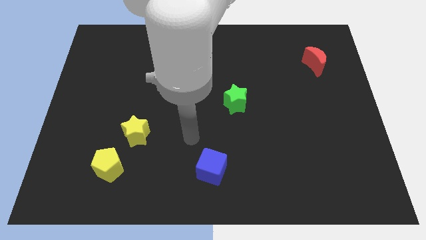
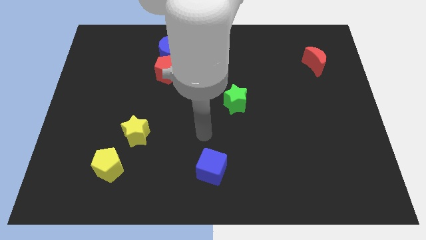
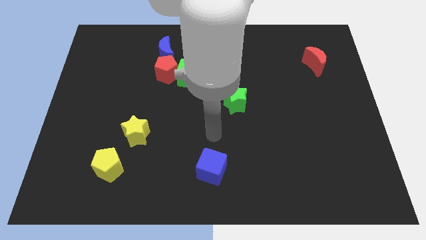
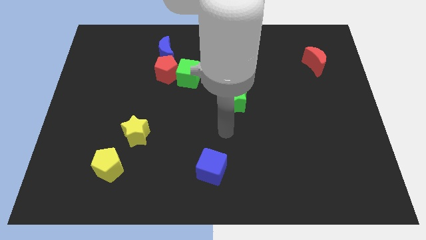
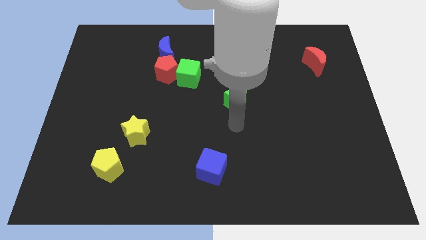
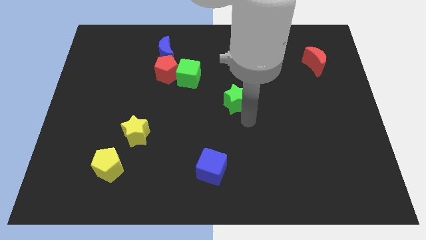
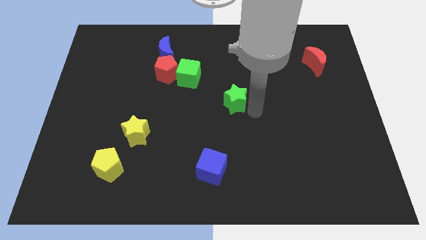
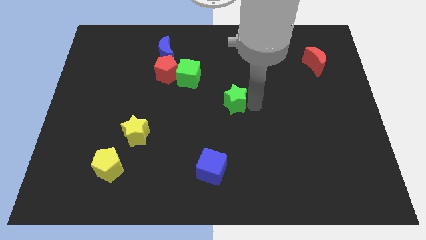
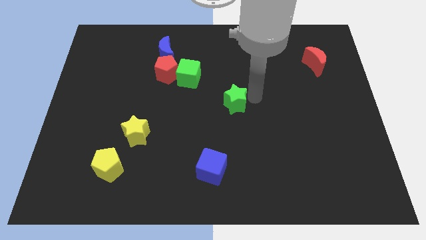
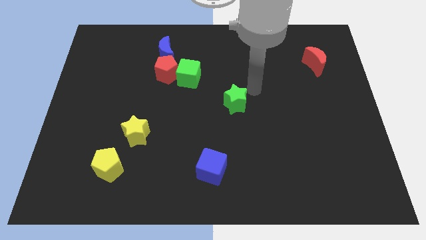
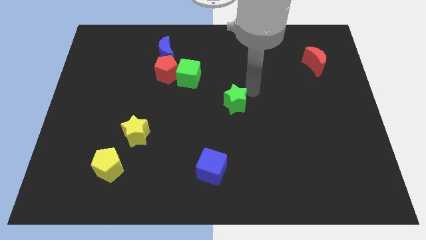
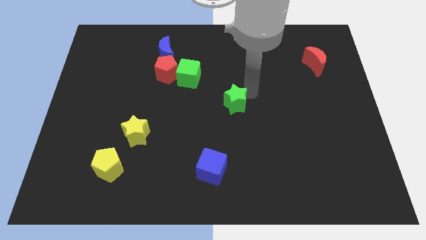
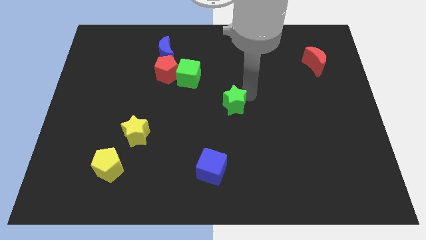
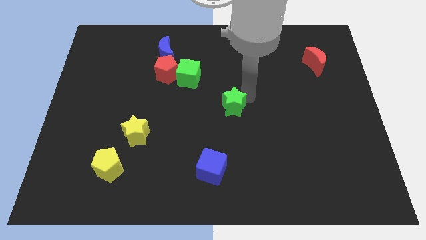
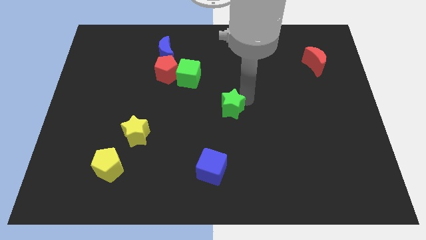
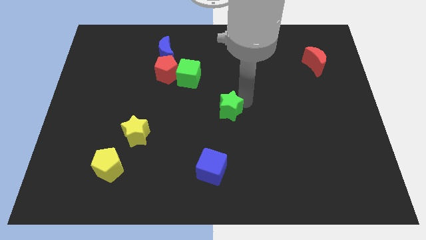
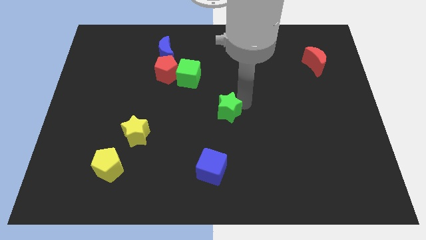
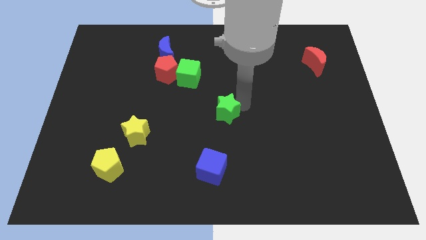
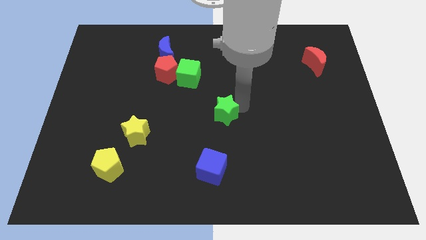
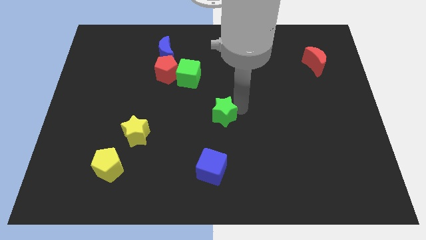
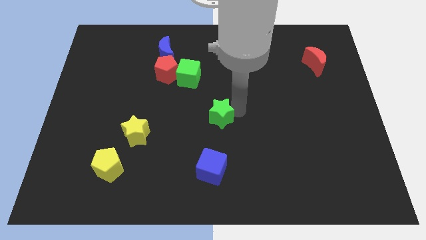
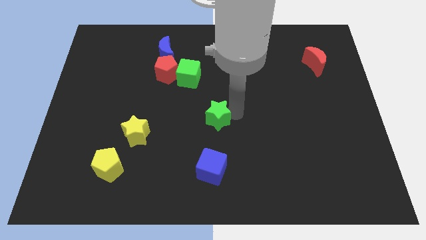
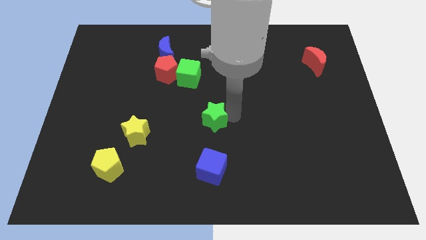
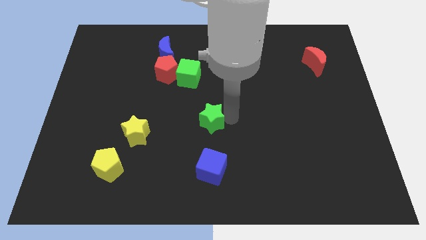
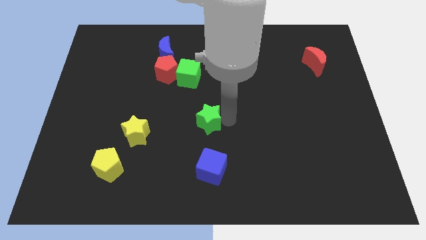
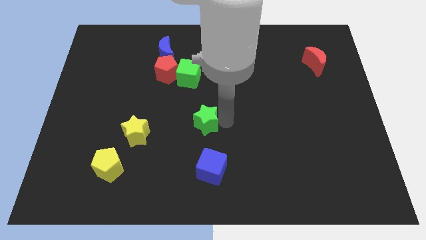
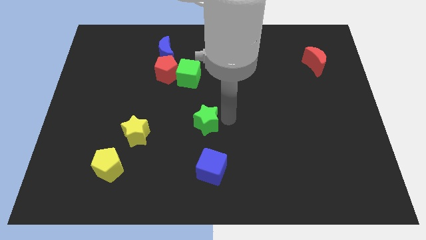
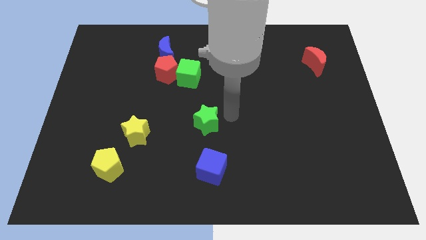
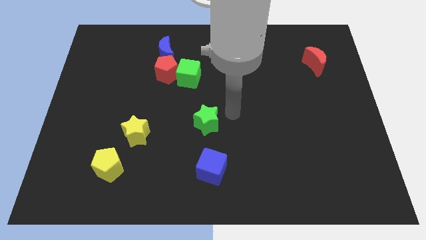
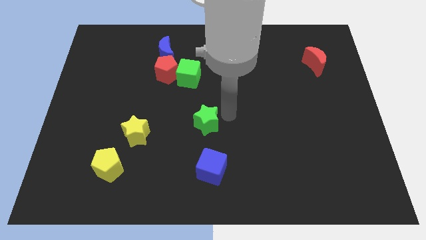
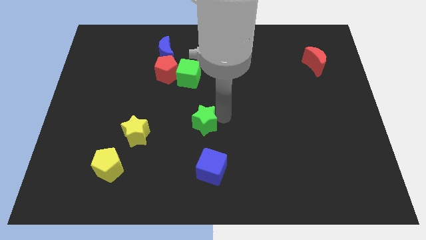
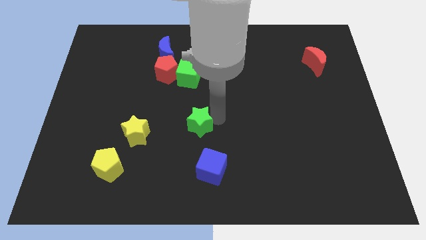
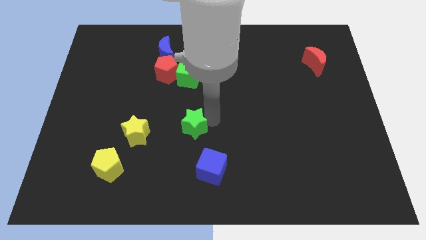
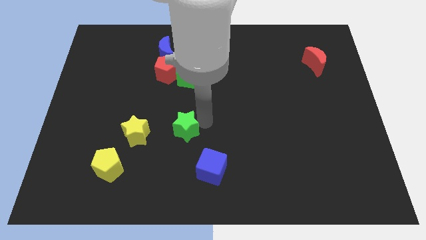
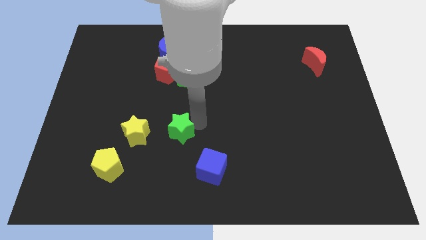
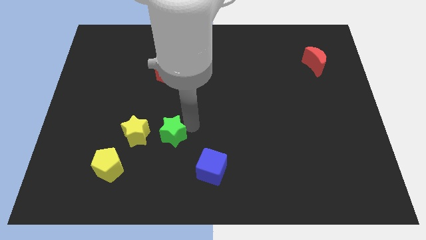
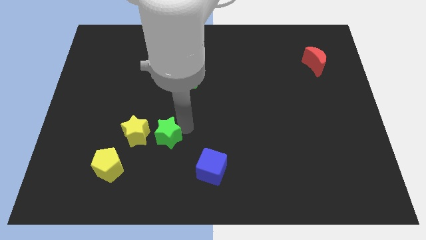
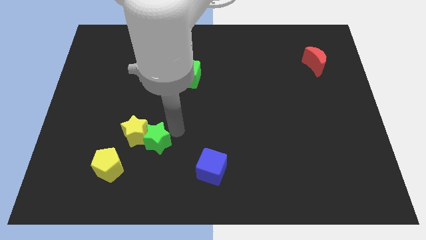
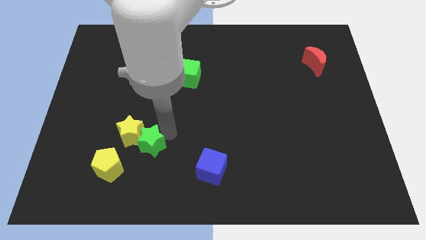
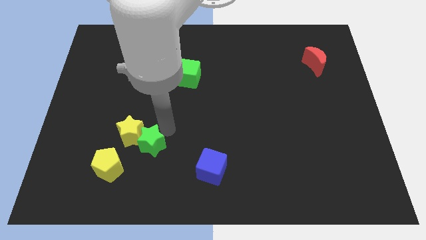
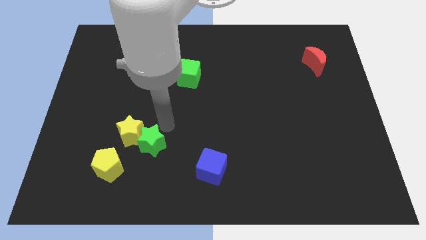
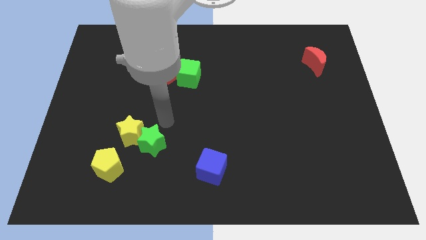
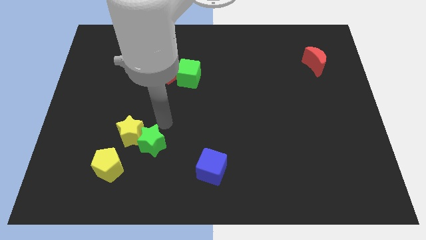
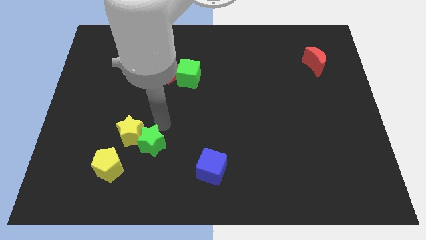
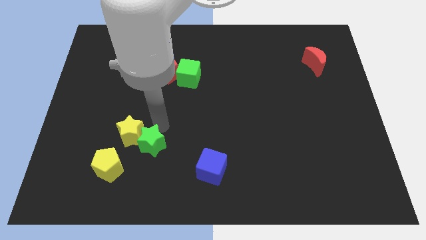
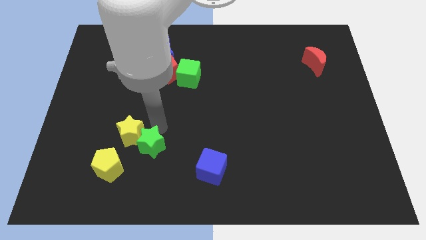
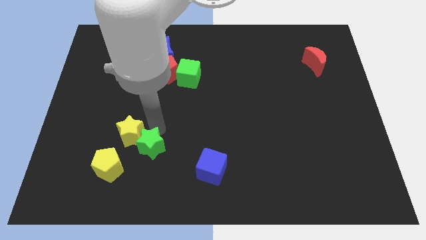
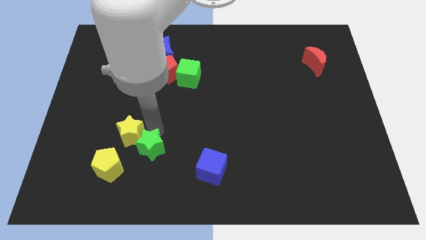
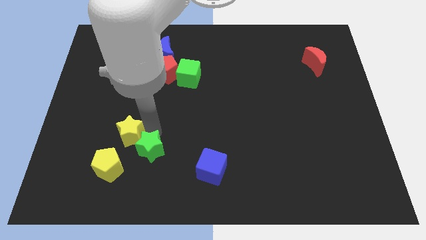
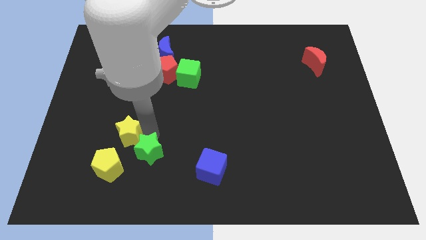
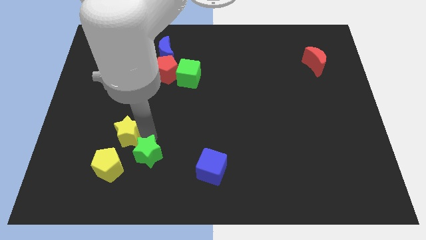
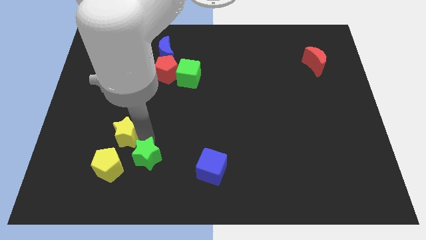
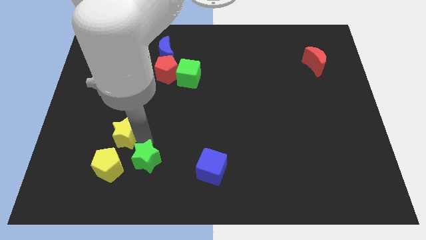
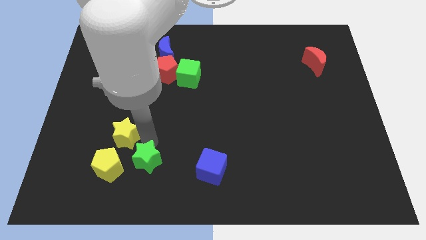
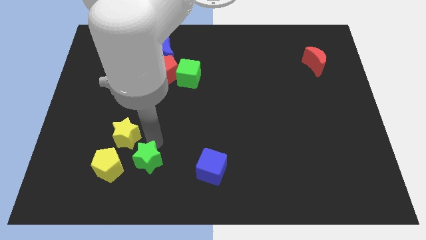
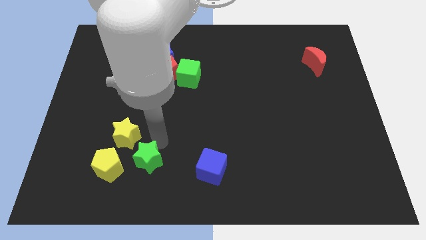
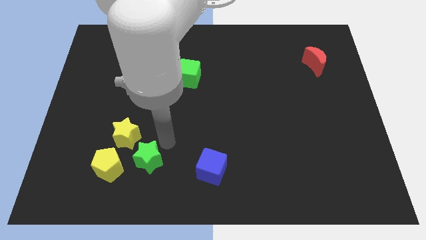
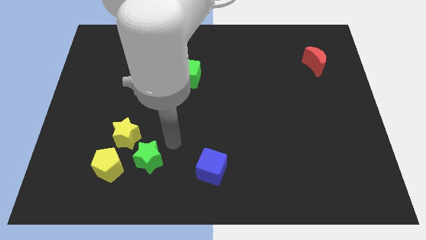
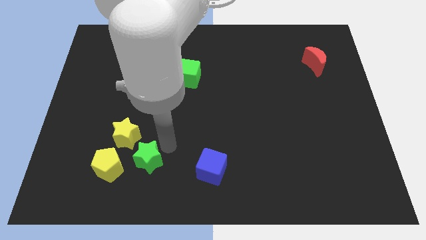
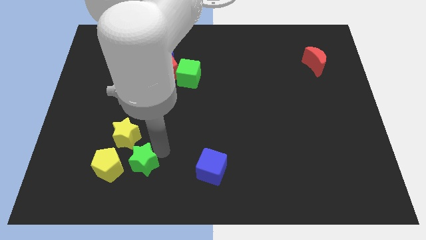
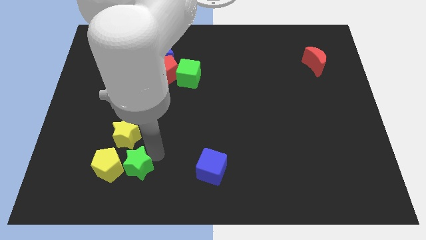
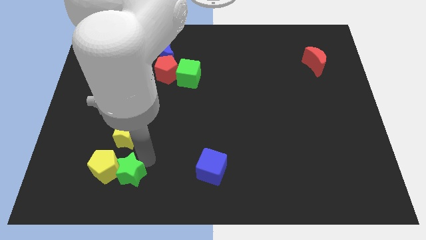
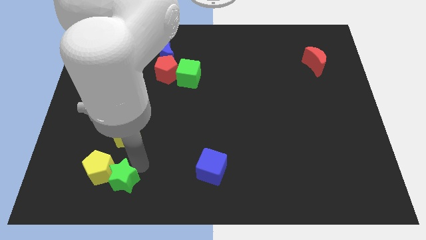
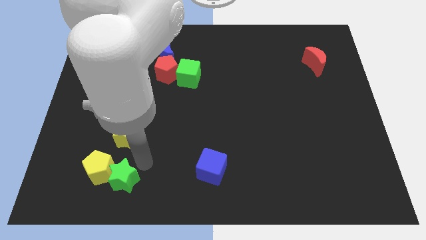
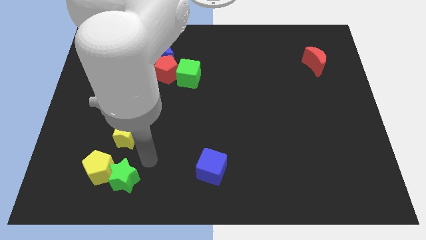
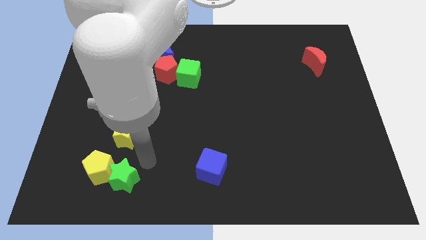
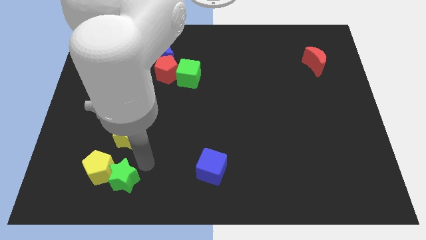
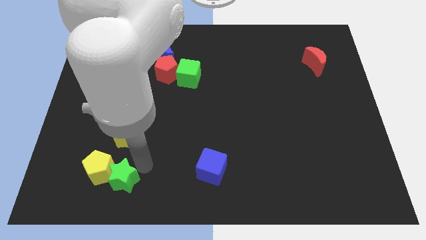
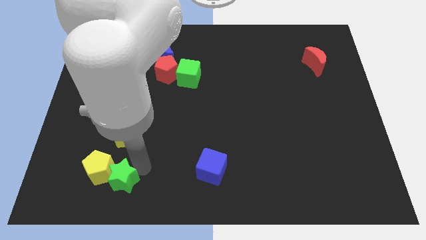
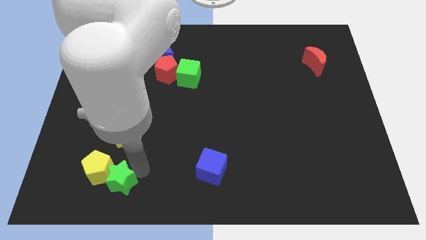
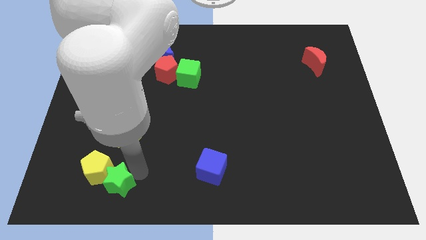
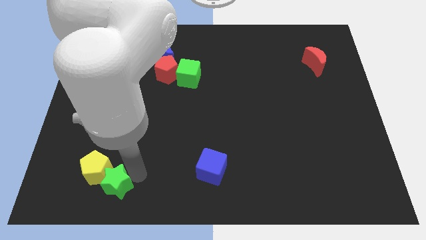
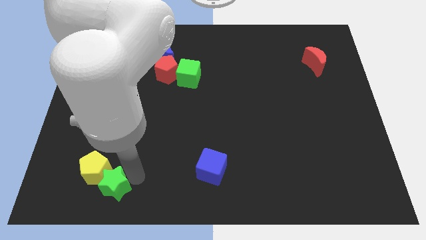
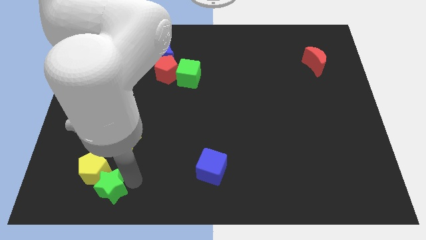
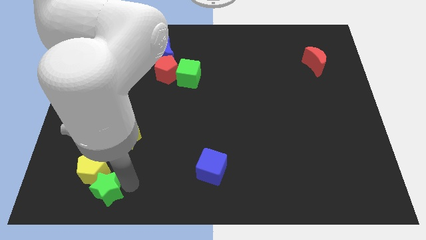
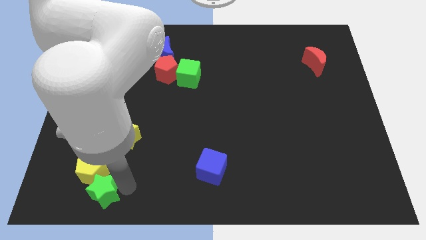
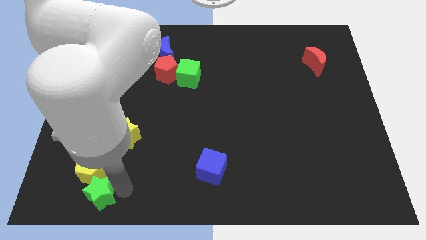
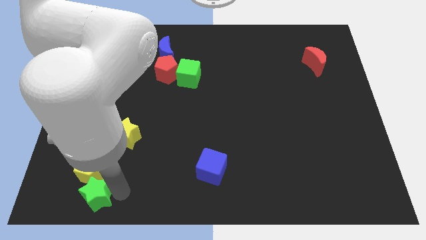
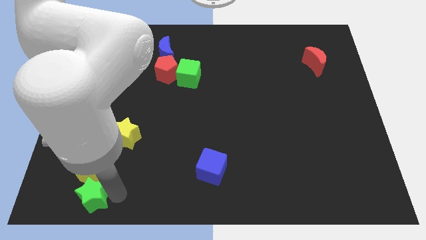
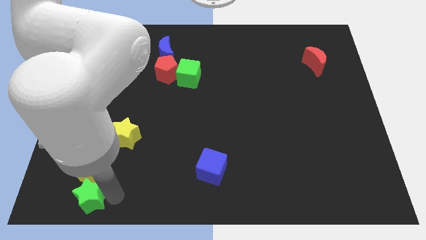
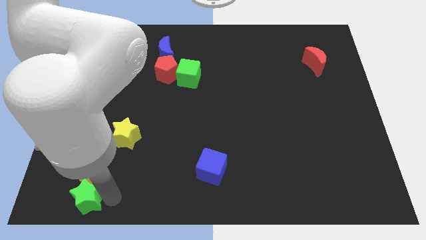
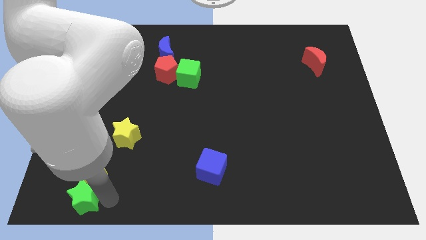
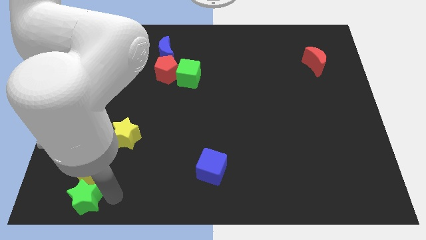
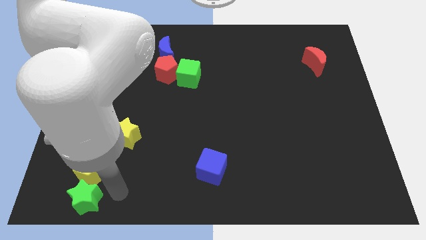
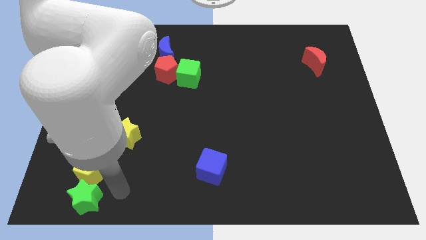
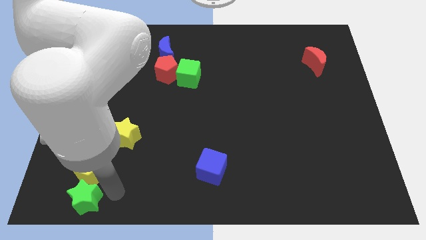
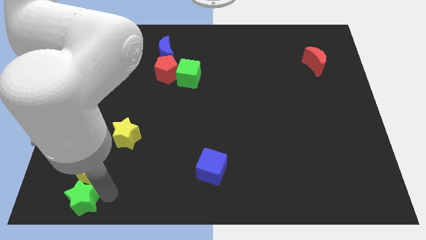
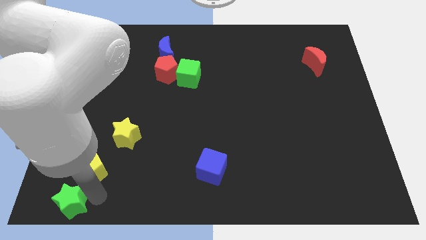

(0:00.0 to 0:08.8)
put the green star to the bottom left corner
